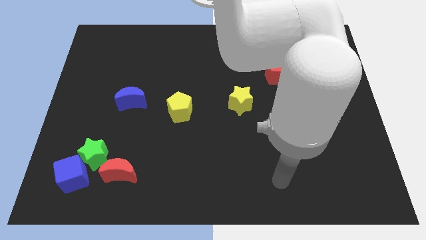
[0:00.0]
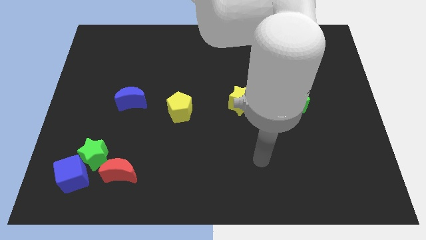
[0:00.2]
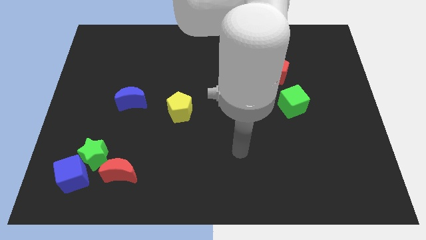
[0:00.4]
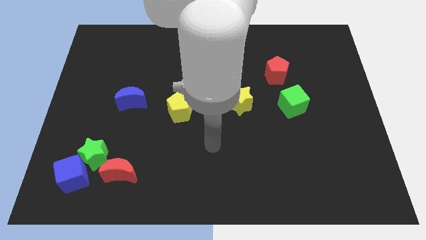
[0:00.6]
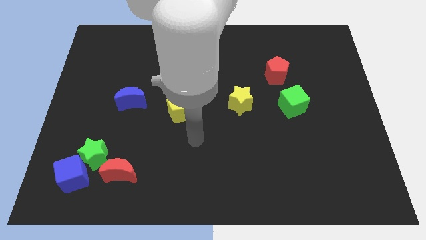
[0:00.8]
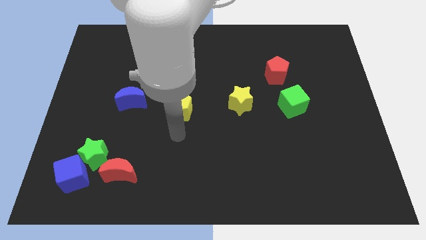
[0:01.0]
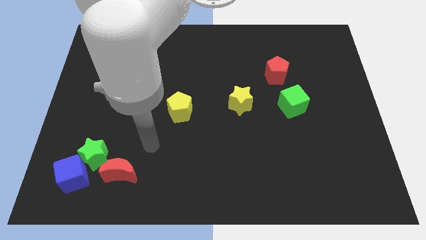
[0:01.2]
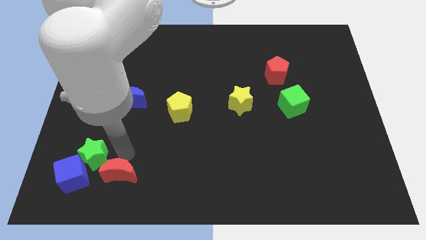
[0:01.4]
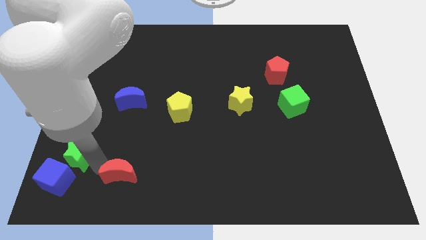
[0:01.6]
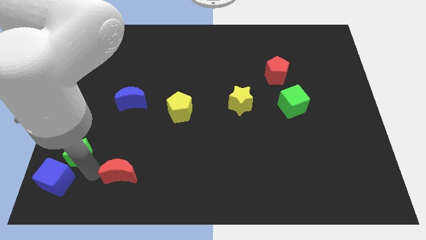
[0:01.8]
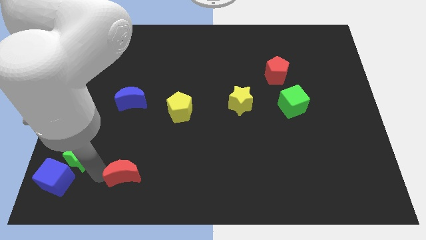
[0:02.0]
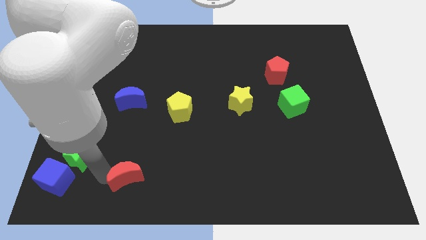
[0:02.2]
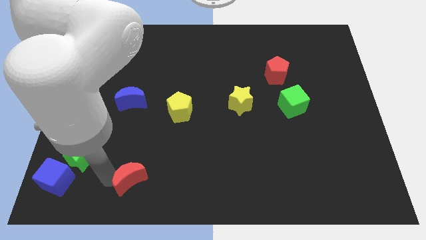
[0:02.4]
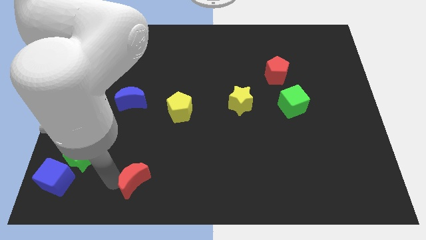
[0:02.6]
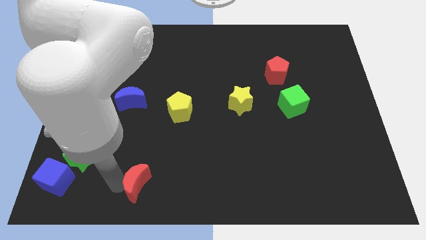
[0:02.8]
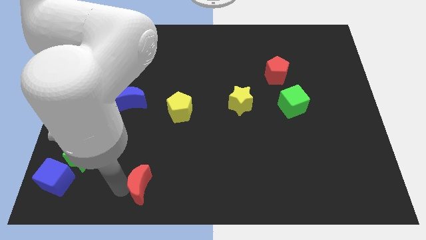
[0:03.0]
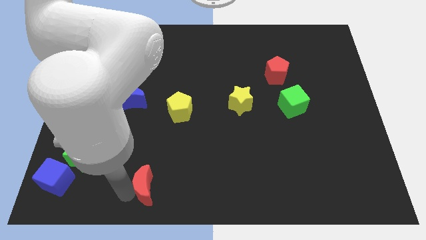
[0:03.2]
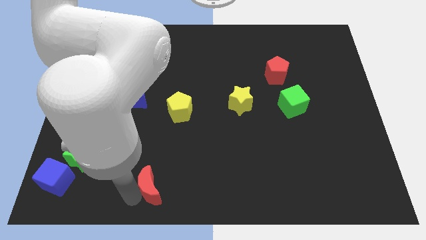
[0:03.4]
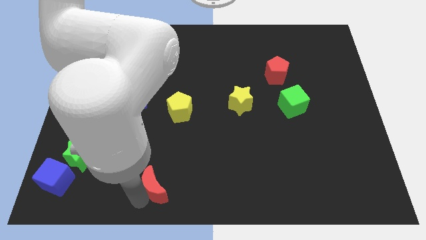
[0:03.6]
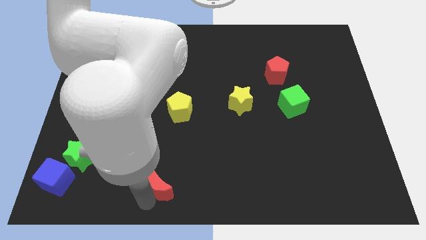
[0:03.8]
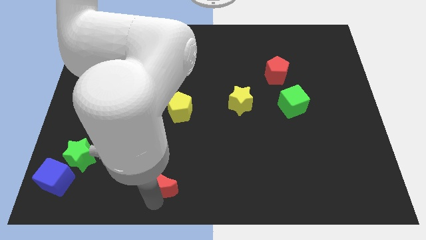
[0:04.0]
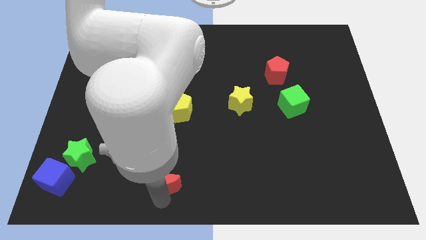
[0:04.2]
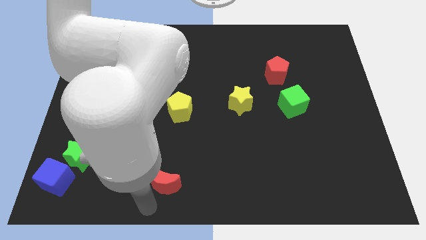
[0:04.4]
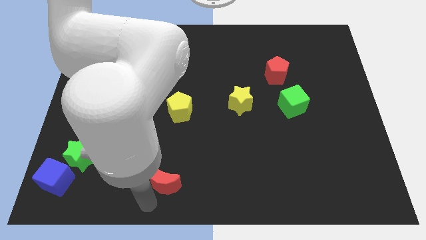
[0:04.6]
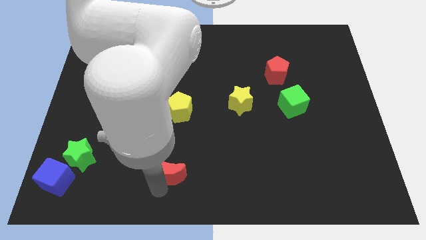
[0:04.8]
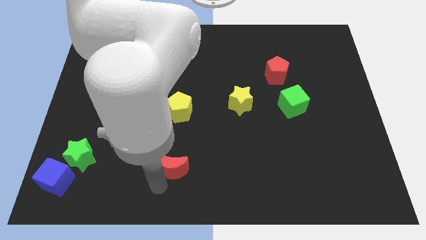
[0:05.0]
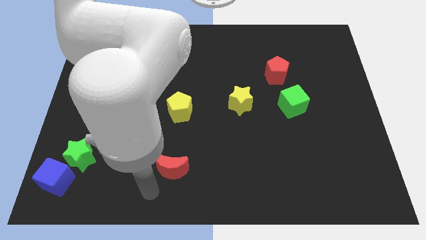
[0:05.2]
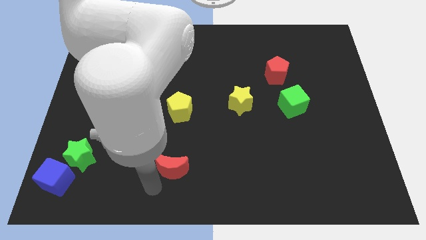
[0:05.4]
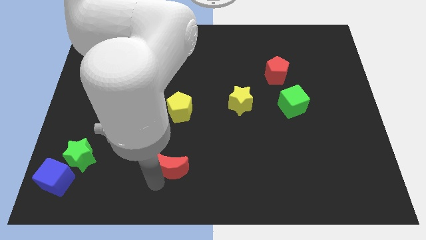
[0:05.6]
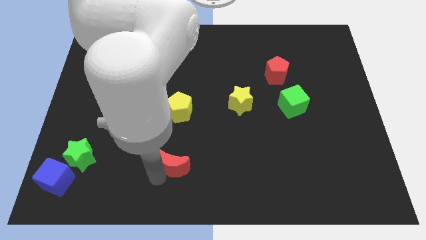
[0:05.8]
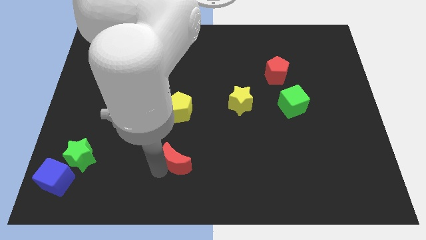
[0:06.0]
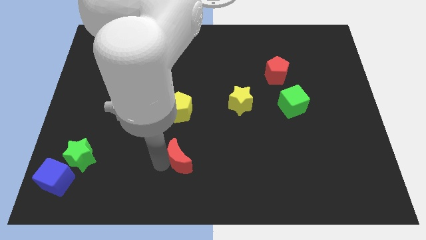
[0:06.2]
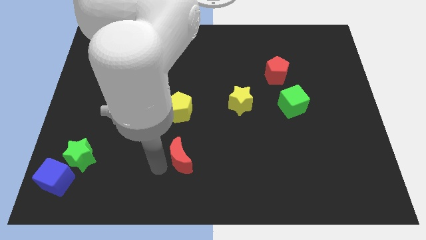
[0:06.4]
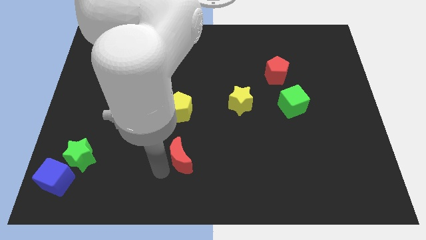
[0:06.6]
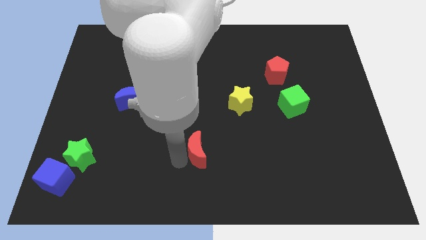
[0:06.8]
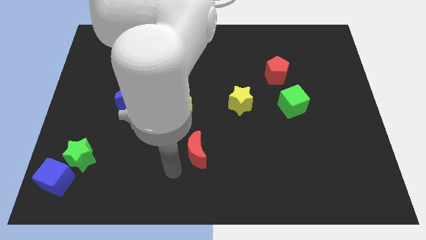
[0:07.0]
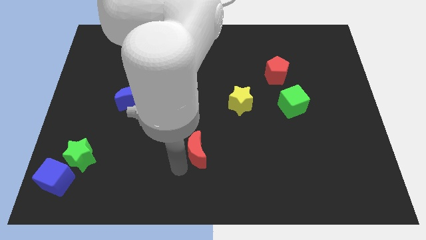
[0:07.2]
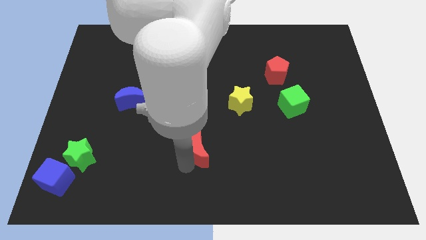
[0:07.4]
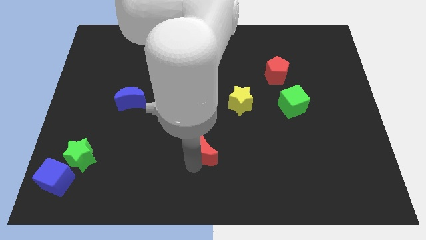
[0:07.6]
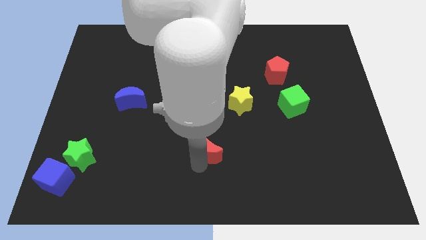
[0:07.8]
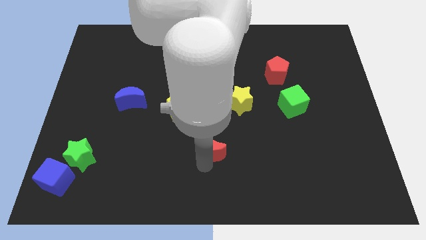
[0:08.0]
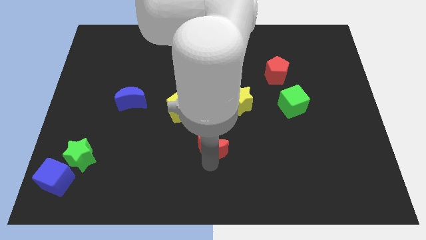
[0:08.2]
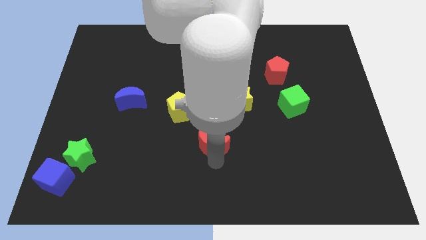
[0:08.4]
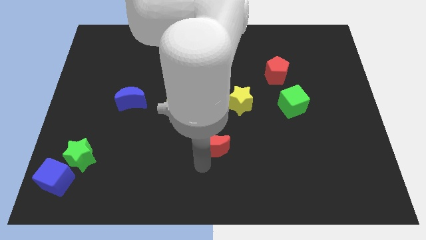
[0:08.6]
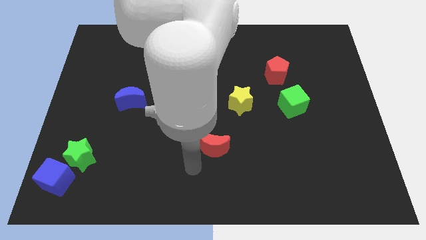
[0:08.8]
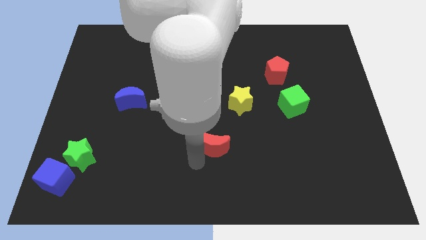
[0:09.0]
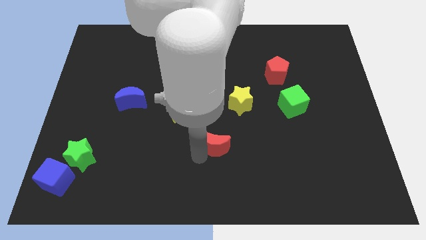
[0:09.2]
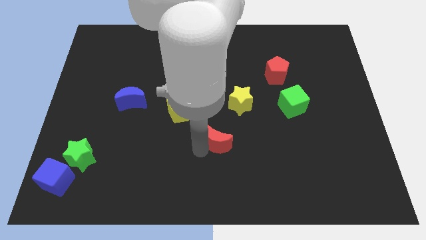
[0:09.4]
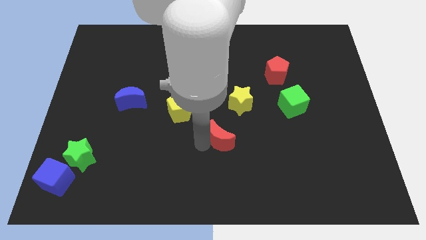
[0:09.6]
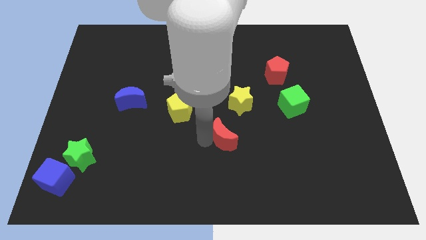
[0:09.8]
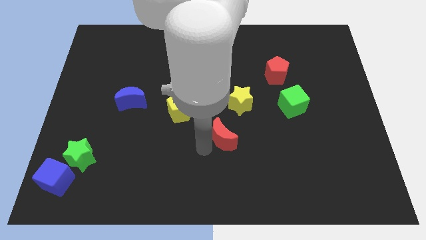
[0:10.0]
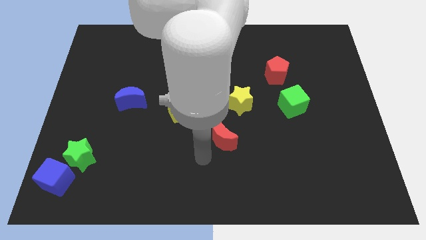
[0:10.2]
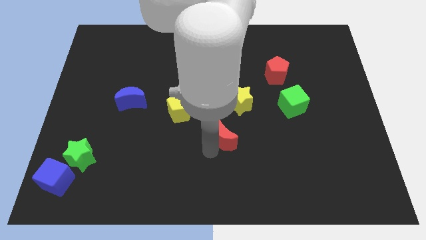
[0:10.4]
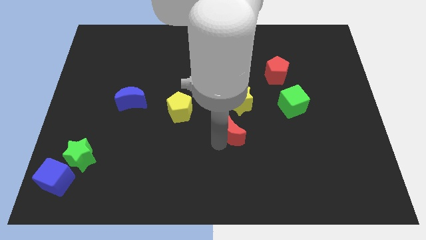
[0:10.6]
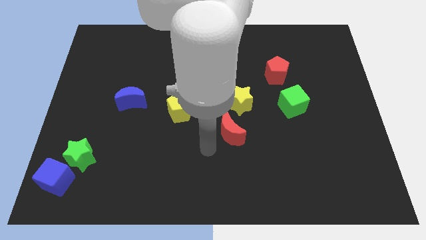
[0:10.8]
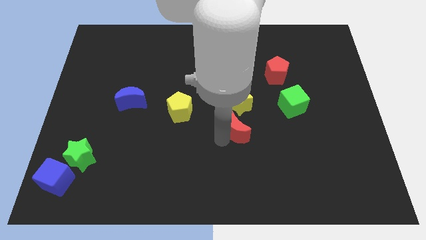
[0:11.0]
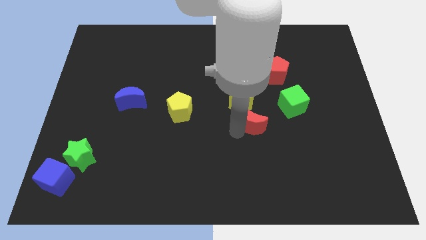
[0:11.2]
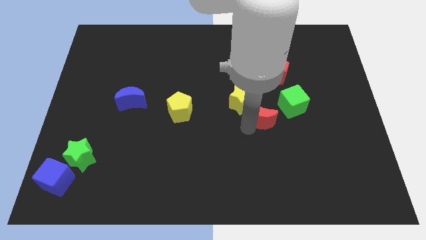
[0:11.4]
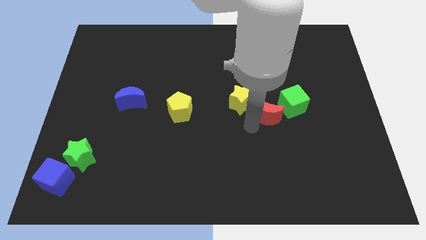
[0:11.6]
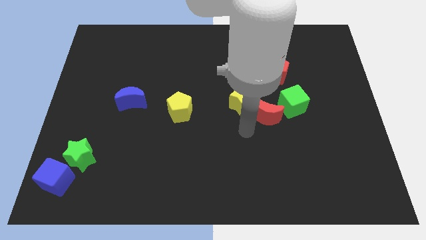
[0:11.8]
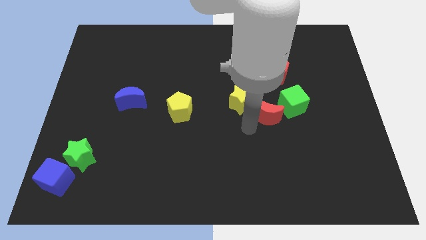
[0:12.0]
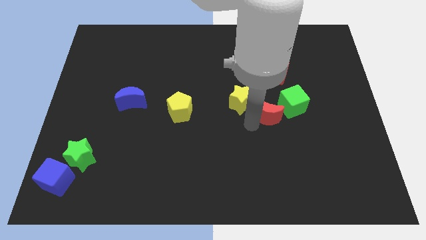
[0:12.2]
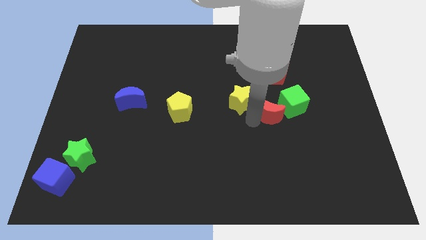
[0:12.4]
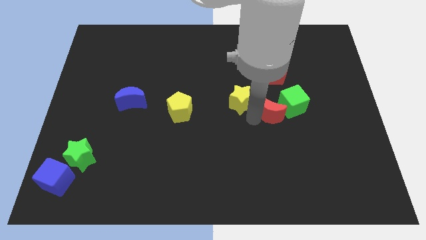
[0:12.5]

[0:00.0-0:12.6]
slide the red moon next to the green cube

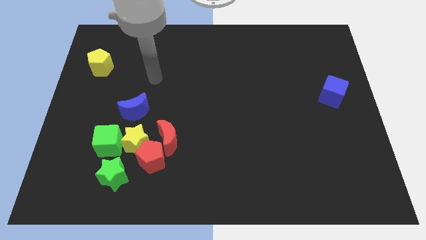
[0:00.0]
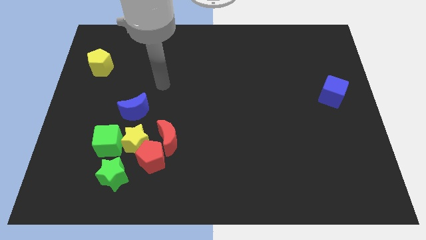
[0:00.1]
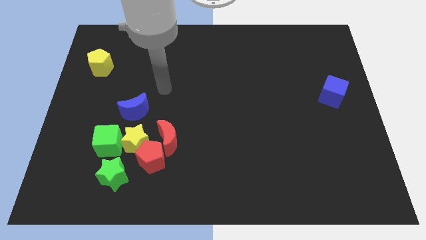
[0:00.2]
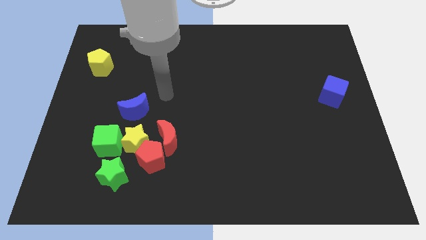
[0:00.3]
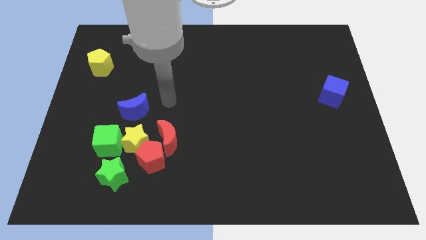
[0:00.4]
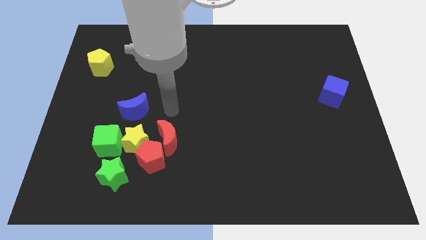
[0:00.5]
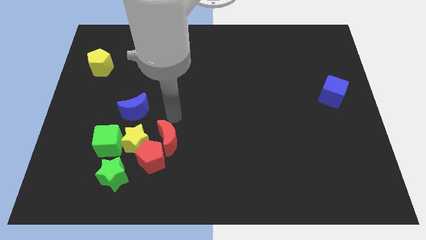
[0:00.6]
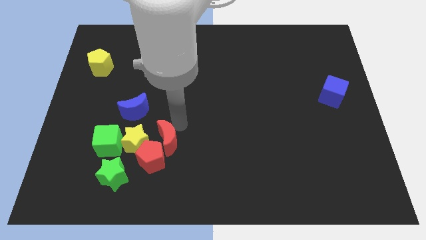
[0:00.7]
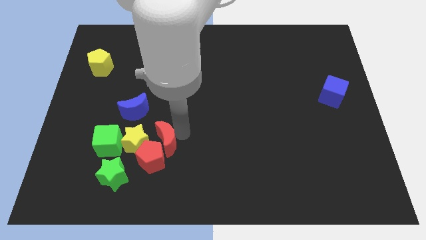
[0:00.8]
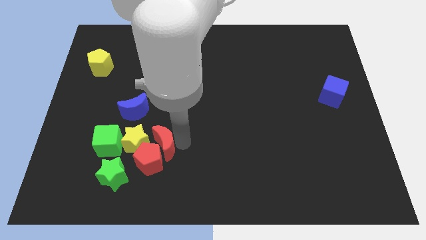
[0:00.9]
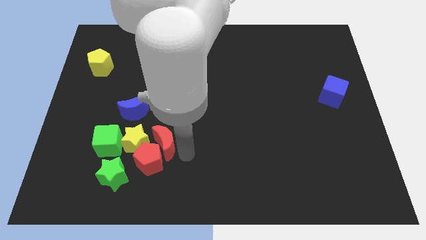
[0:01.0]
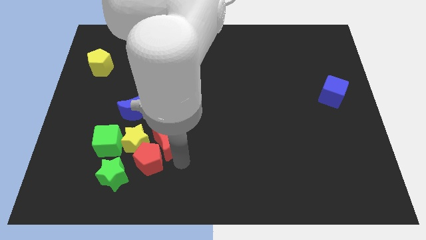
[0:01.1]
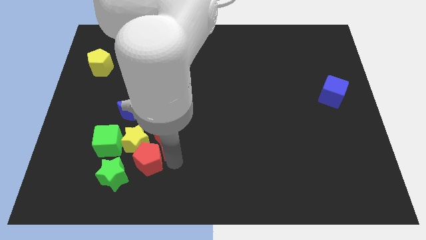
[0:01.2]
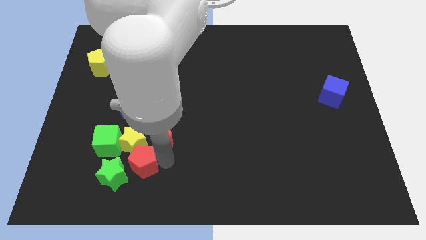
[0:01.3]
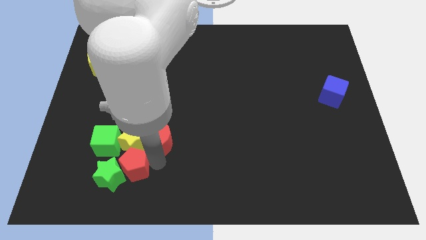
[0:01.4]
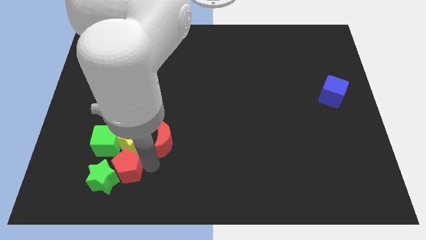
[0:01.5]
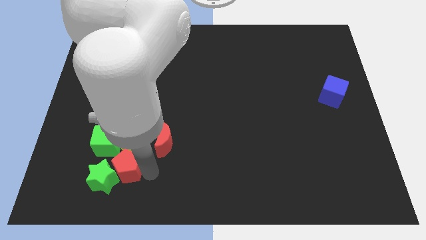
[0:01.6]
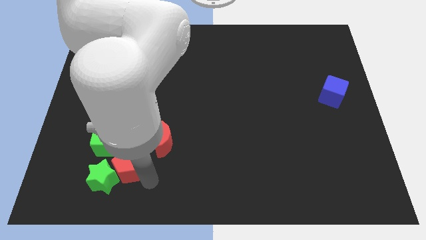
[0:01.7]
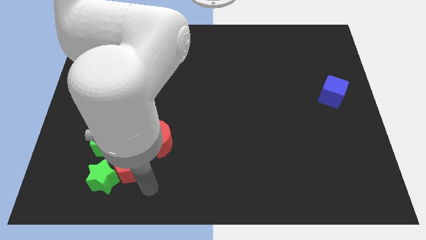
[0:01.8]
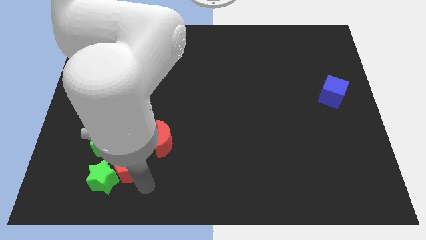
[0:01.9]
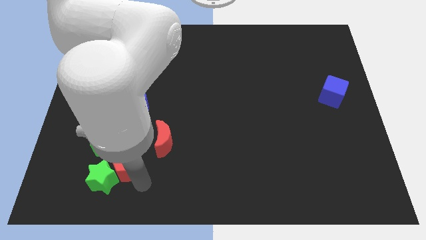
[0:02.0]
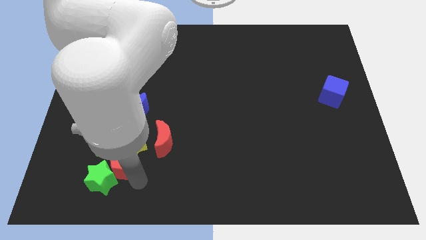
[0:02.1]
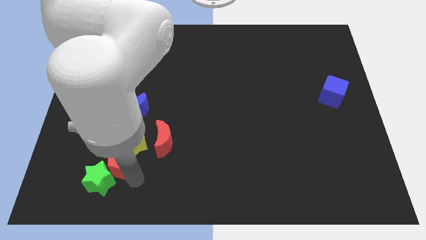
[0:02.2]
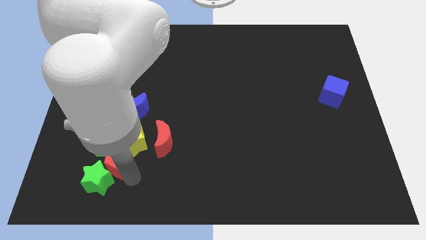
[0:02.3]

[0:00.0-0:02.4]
move the red pentagon close to the green cube
